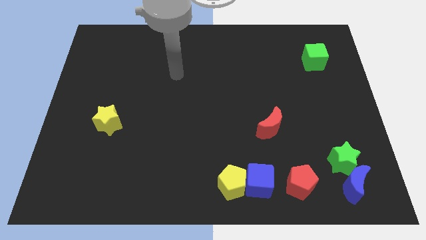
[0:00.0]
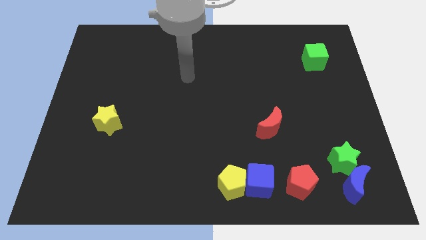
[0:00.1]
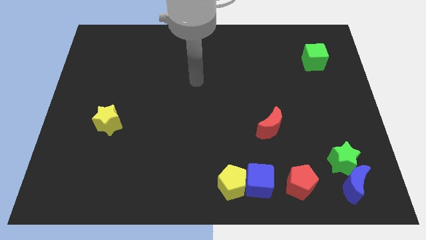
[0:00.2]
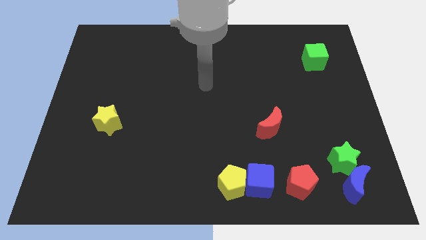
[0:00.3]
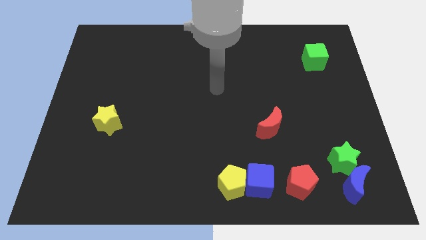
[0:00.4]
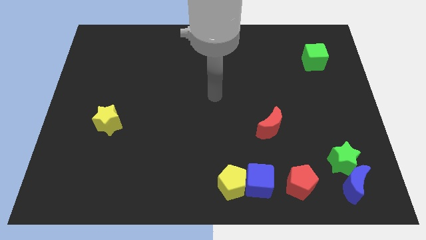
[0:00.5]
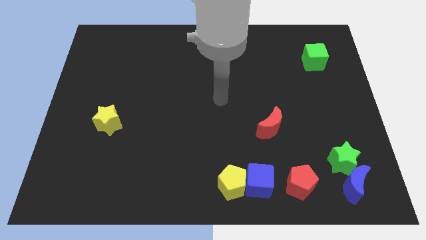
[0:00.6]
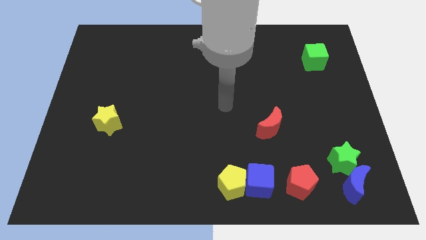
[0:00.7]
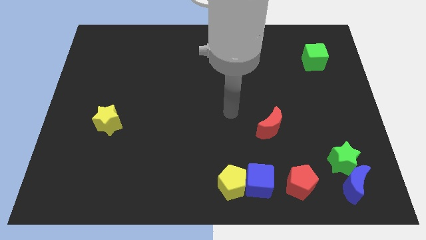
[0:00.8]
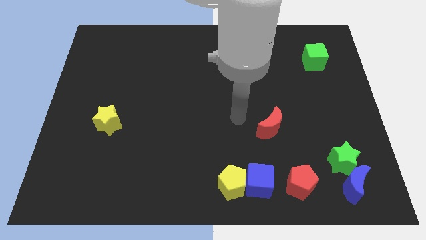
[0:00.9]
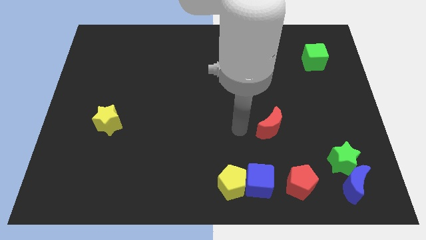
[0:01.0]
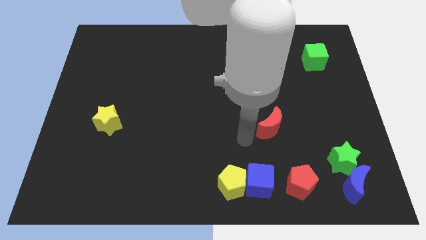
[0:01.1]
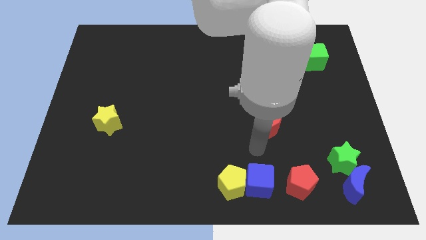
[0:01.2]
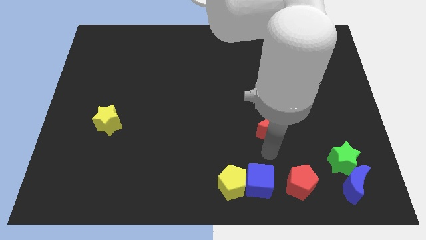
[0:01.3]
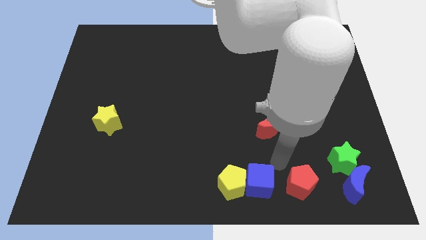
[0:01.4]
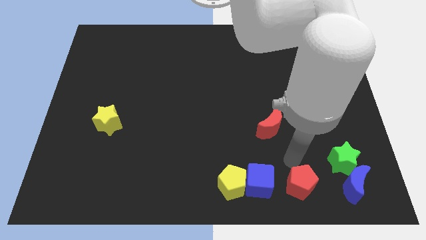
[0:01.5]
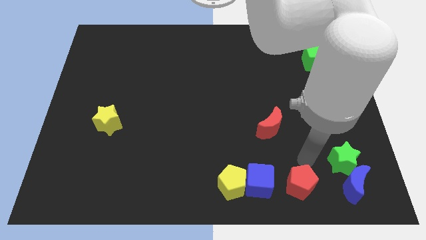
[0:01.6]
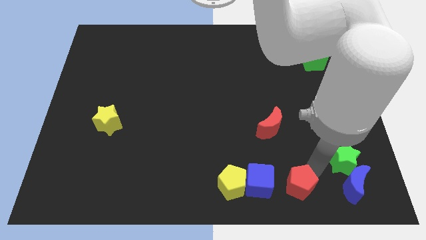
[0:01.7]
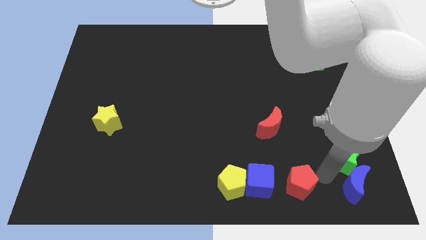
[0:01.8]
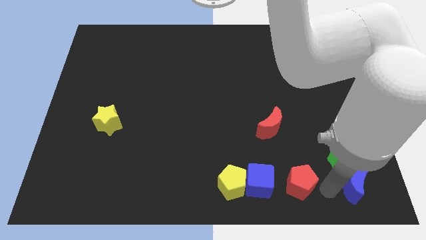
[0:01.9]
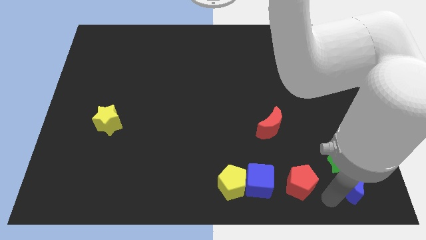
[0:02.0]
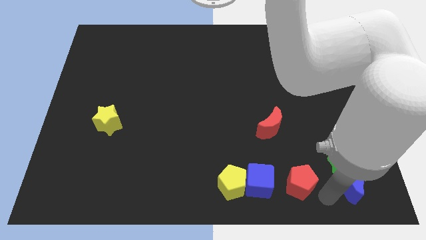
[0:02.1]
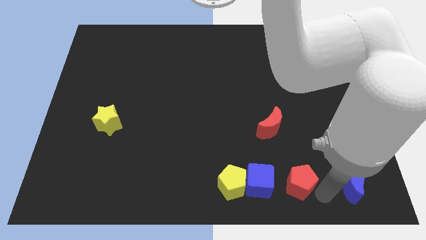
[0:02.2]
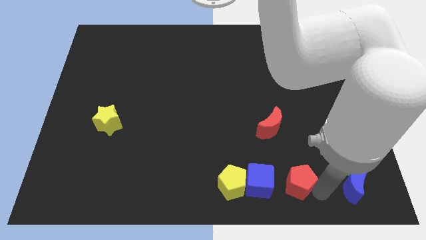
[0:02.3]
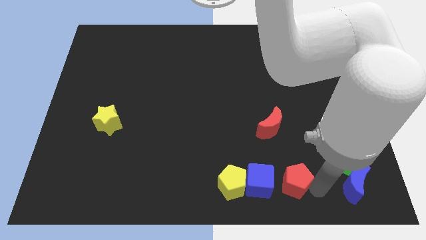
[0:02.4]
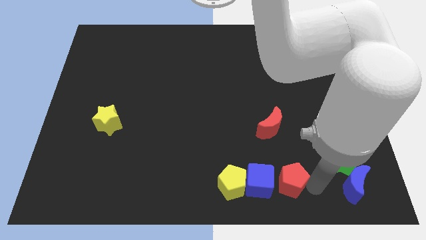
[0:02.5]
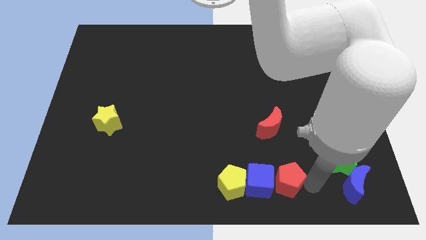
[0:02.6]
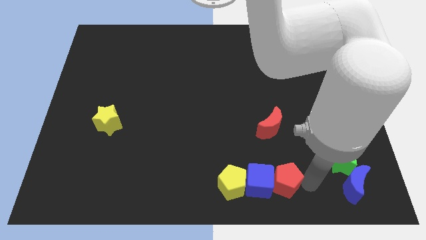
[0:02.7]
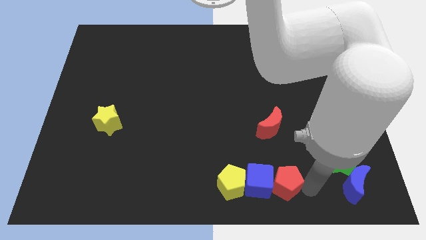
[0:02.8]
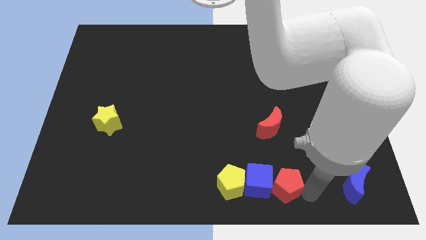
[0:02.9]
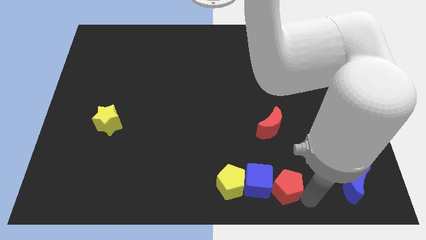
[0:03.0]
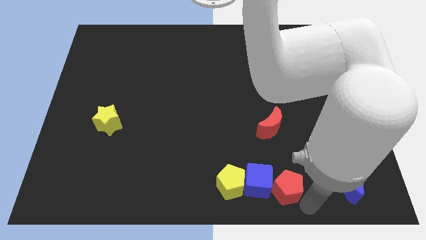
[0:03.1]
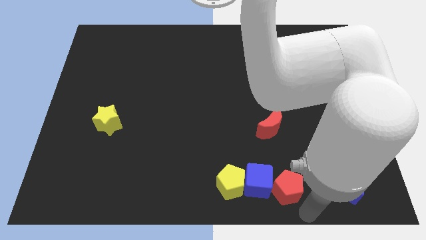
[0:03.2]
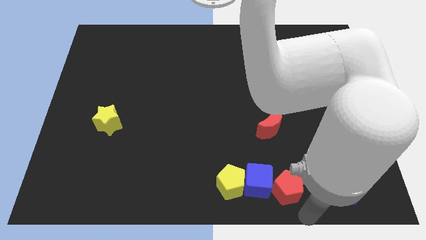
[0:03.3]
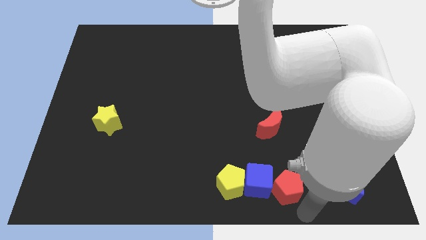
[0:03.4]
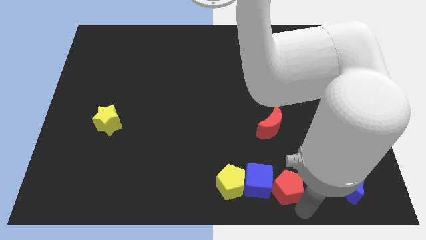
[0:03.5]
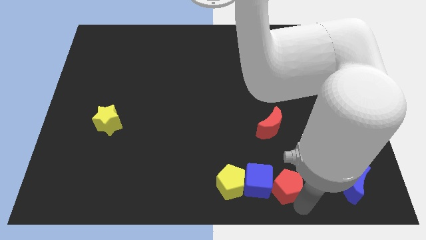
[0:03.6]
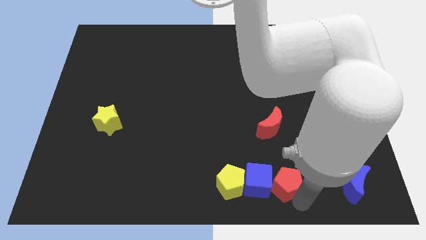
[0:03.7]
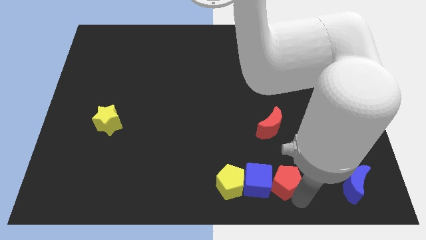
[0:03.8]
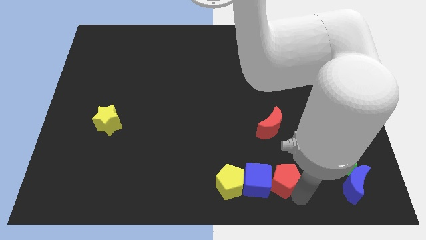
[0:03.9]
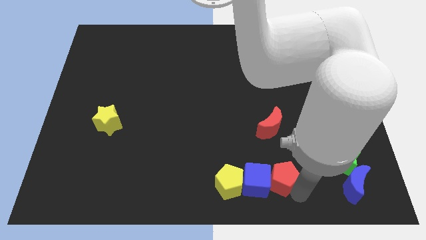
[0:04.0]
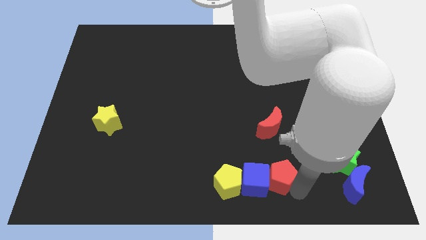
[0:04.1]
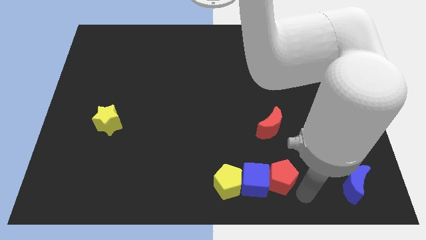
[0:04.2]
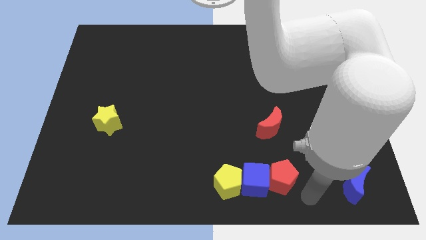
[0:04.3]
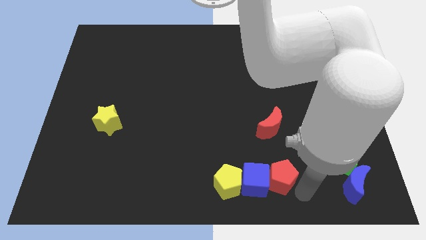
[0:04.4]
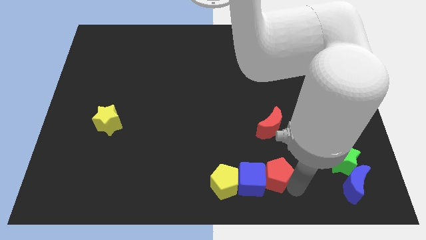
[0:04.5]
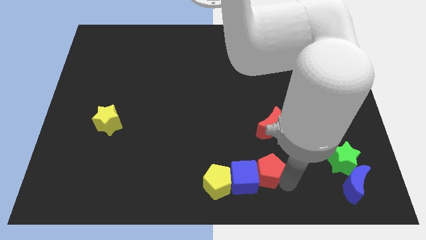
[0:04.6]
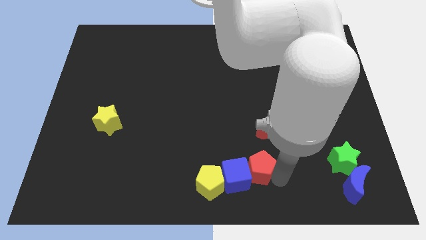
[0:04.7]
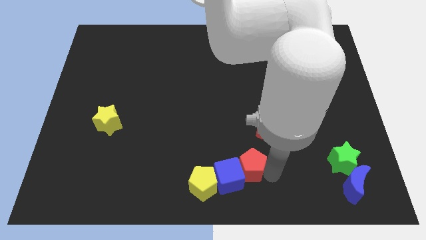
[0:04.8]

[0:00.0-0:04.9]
push the red pentagon diagonally up and to the right of the yellow pentagon

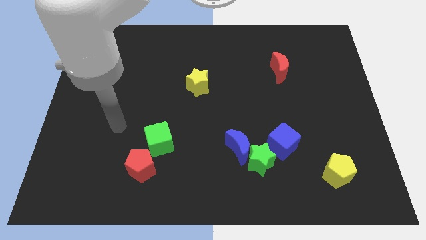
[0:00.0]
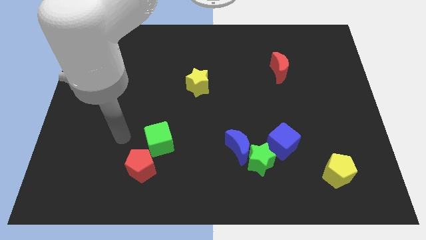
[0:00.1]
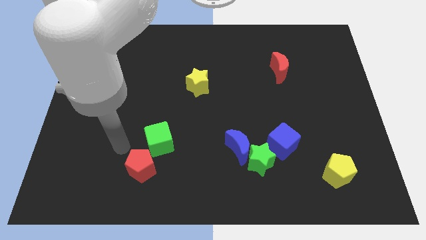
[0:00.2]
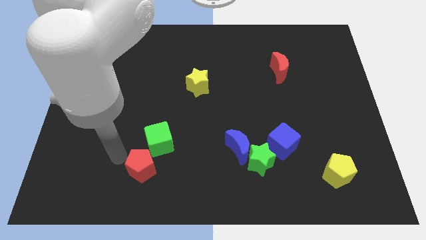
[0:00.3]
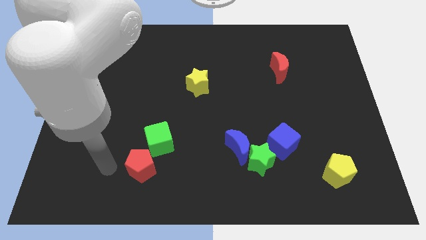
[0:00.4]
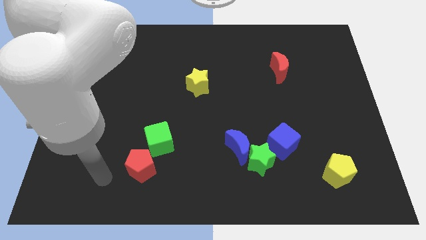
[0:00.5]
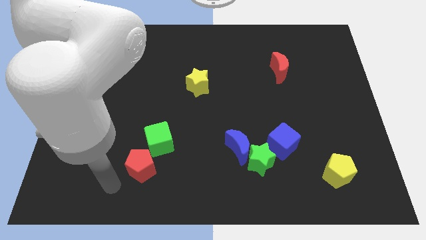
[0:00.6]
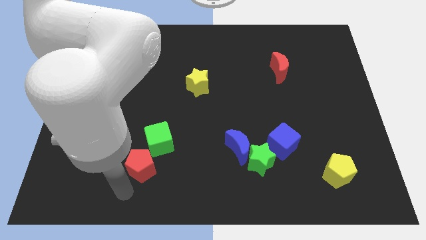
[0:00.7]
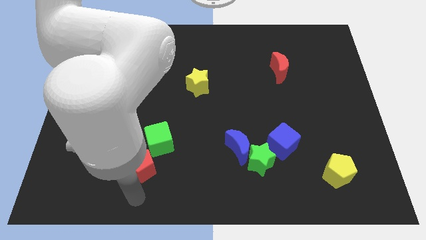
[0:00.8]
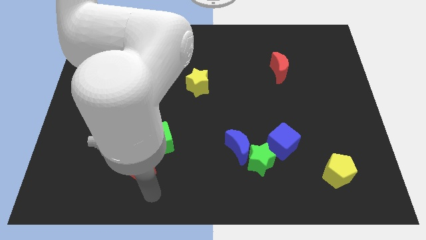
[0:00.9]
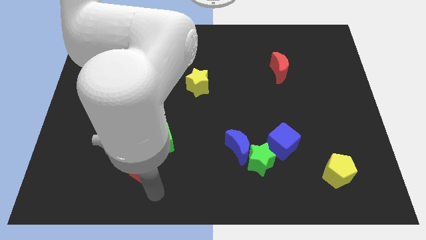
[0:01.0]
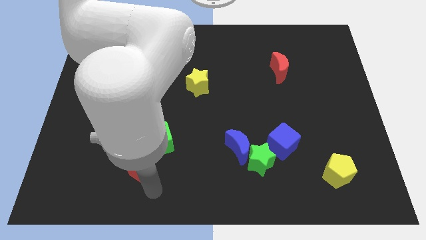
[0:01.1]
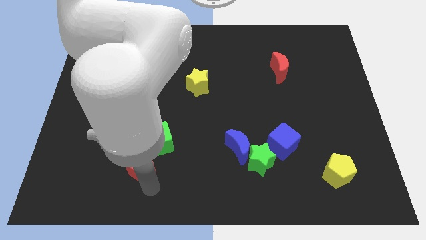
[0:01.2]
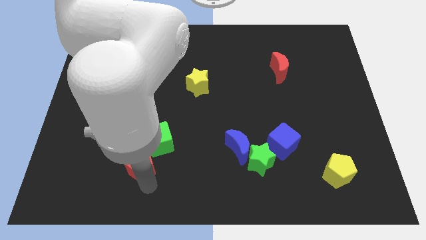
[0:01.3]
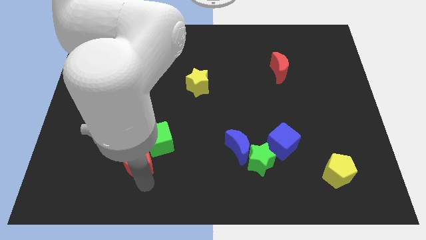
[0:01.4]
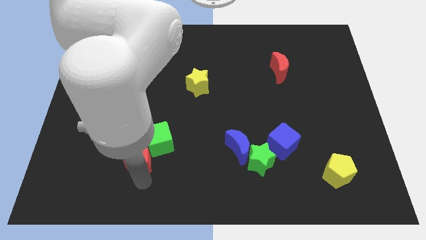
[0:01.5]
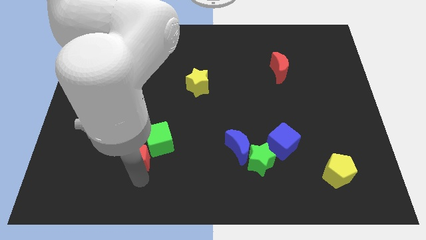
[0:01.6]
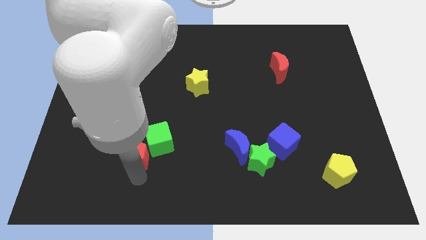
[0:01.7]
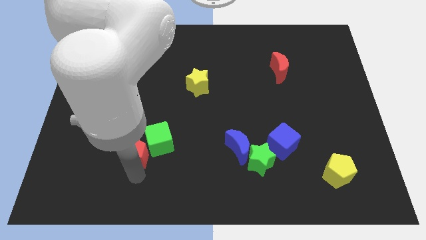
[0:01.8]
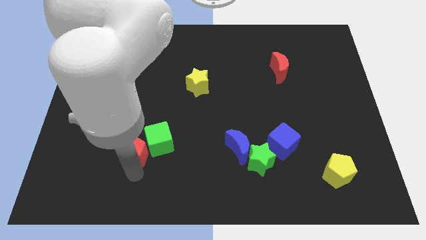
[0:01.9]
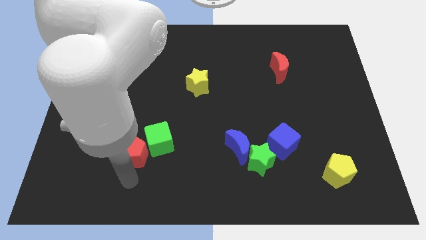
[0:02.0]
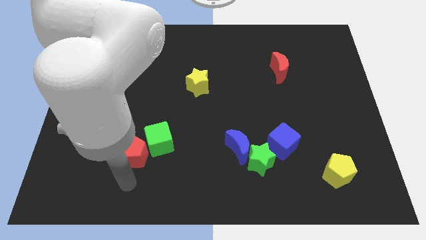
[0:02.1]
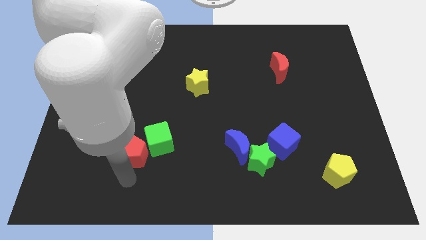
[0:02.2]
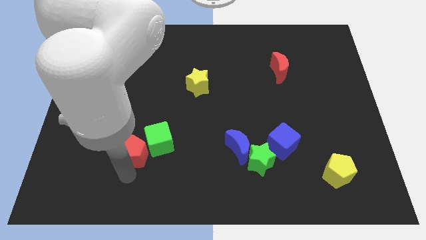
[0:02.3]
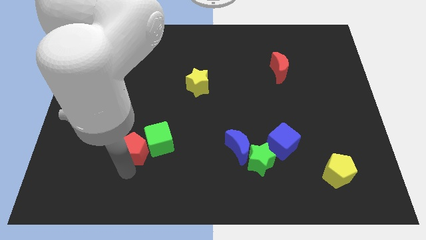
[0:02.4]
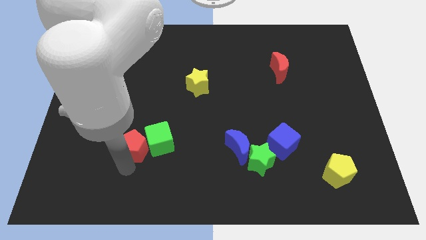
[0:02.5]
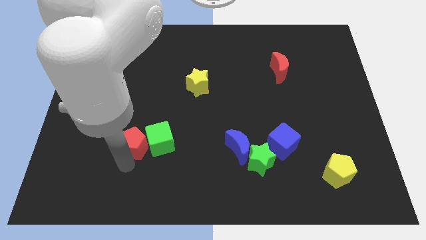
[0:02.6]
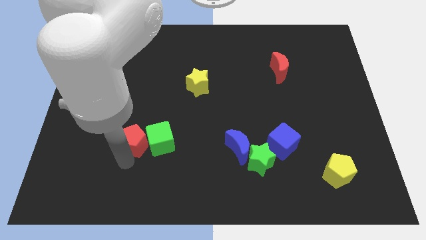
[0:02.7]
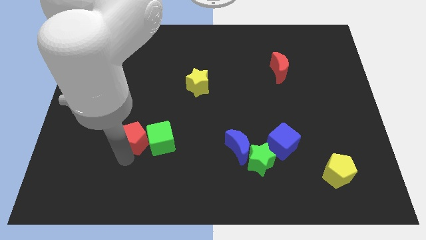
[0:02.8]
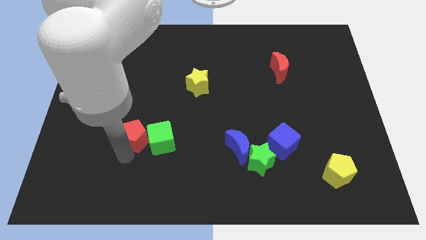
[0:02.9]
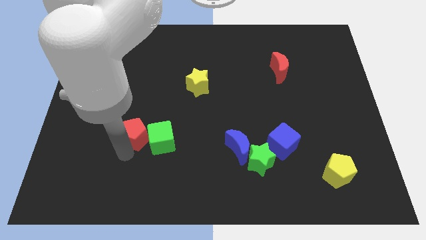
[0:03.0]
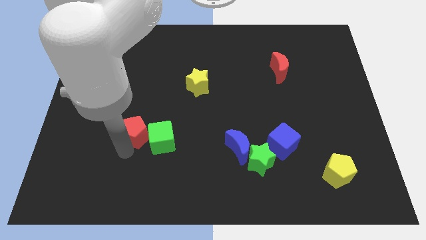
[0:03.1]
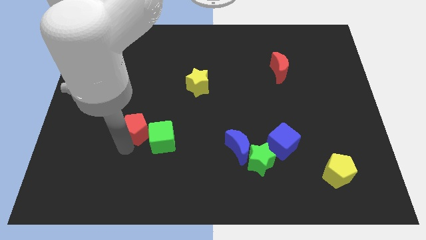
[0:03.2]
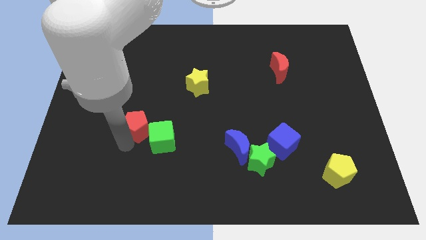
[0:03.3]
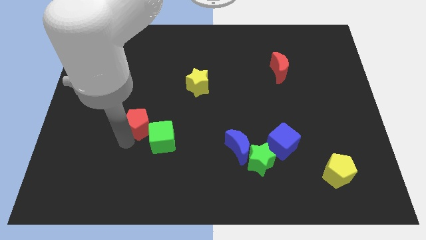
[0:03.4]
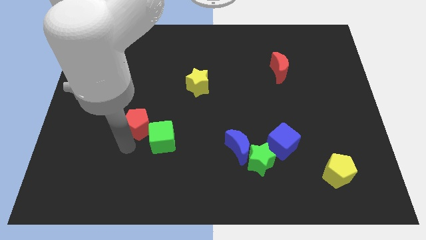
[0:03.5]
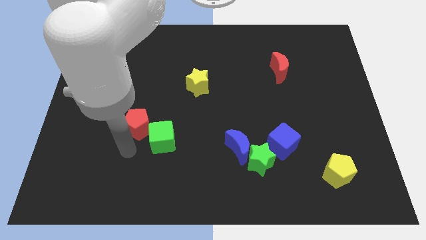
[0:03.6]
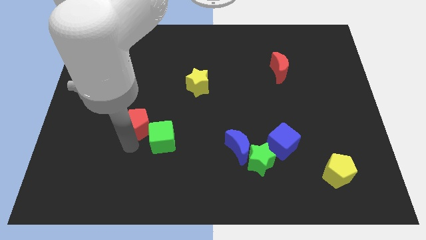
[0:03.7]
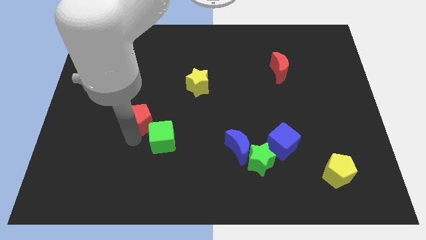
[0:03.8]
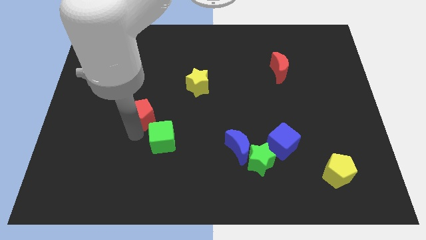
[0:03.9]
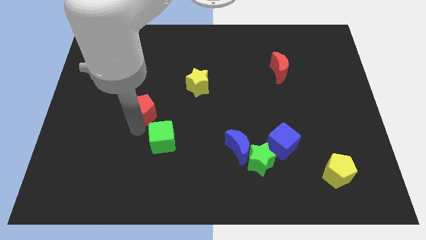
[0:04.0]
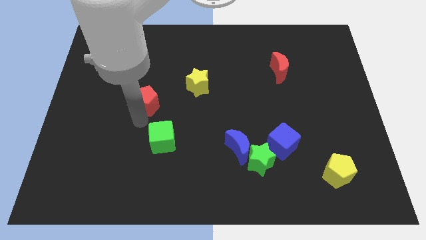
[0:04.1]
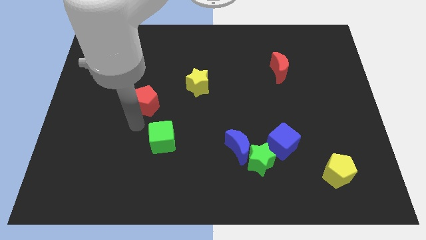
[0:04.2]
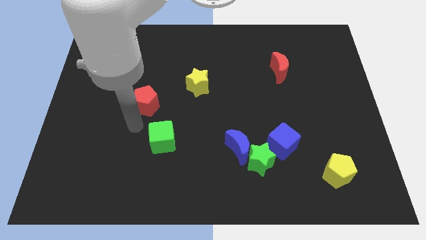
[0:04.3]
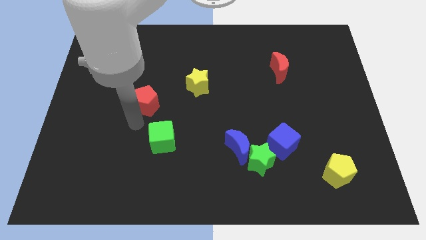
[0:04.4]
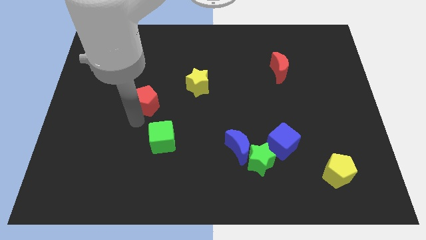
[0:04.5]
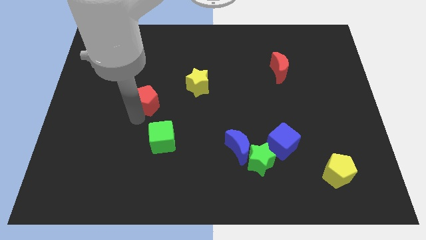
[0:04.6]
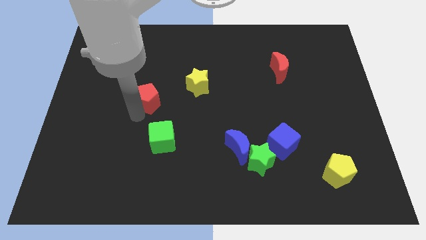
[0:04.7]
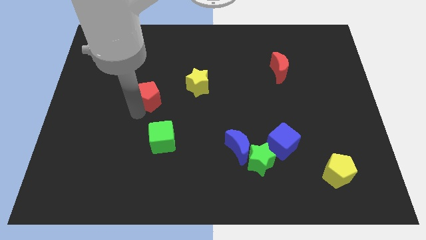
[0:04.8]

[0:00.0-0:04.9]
move the red pentagon to the left of the yellow star
